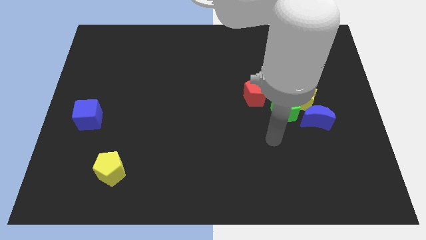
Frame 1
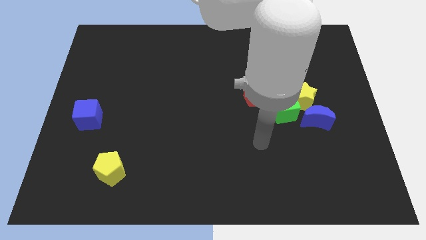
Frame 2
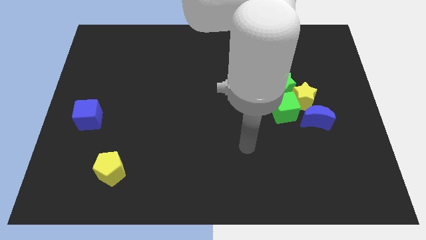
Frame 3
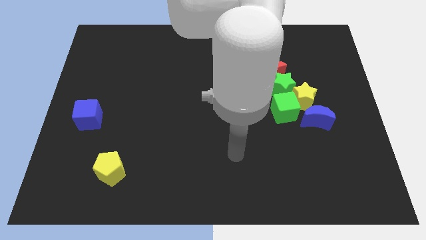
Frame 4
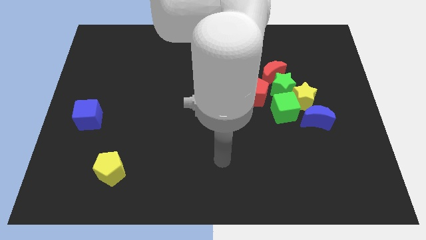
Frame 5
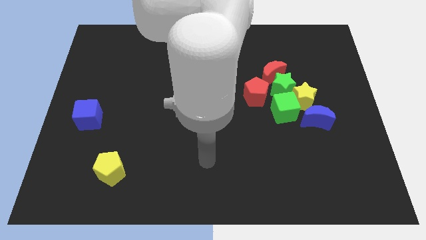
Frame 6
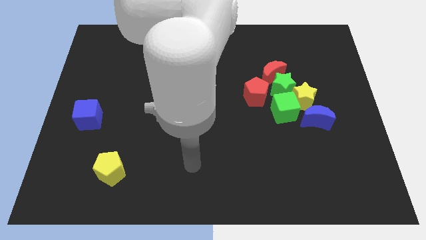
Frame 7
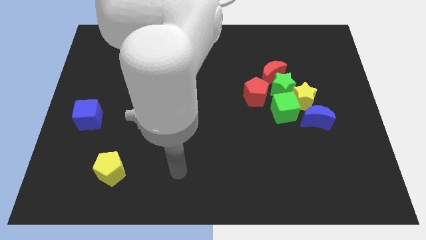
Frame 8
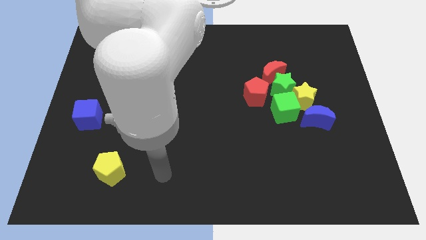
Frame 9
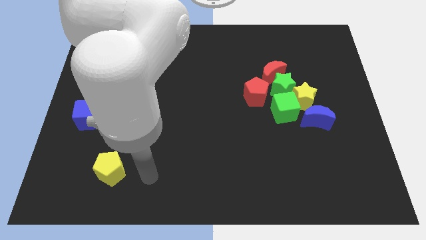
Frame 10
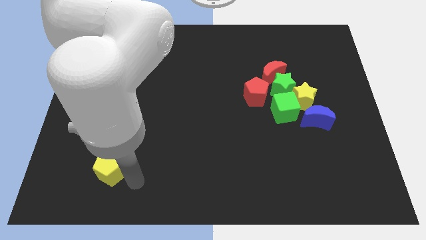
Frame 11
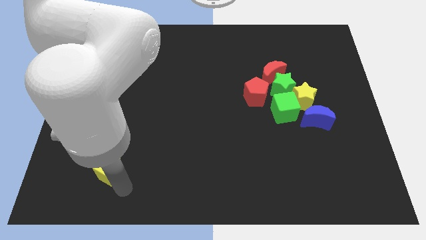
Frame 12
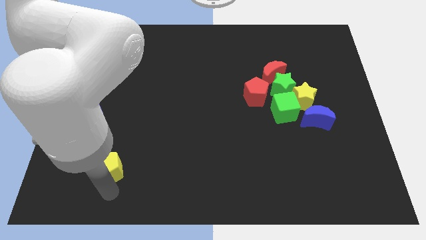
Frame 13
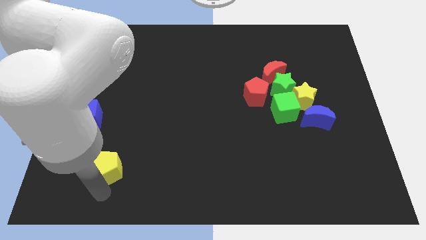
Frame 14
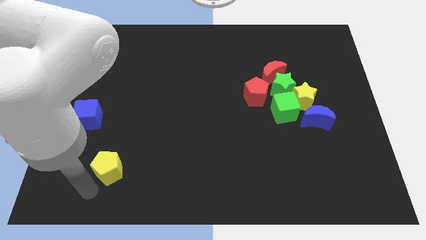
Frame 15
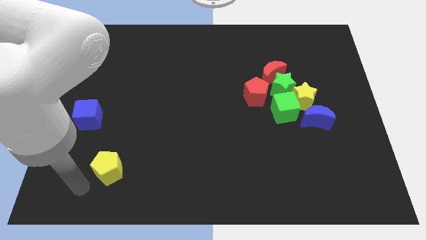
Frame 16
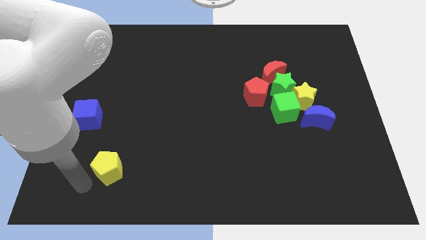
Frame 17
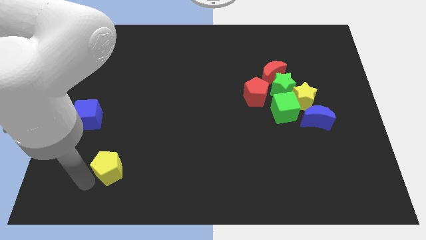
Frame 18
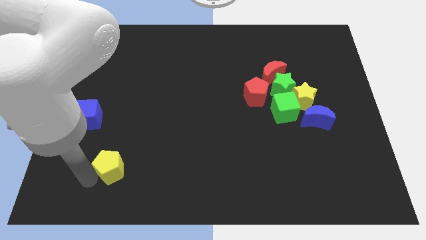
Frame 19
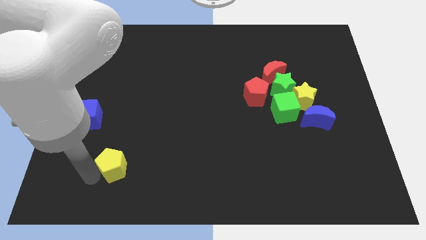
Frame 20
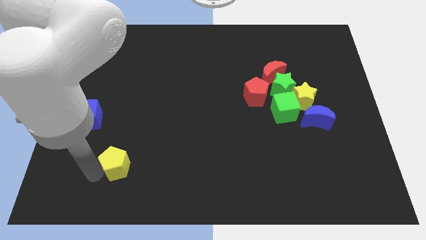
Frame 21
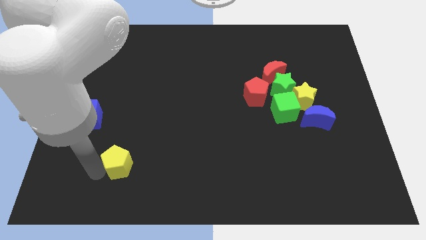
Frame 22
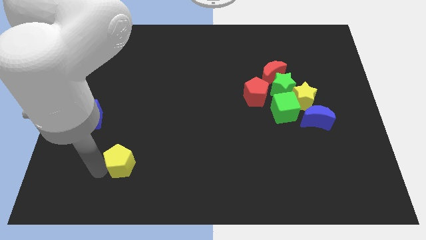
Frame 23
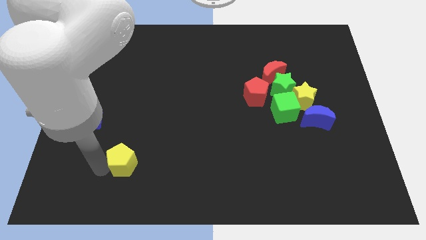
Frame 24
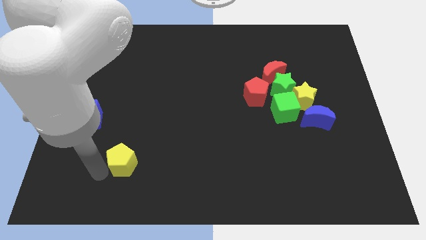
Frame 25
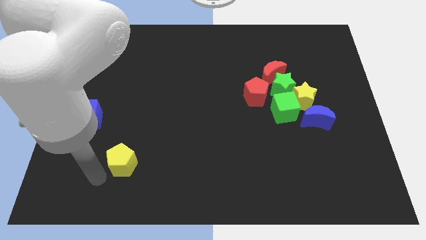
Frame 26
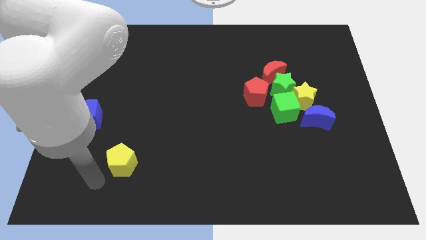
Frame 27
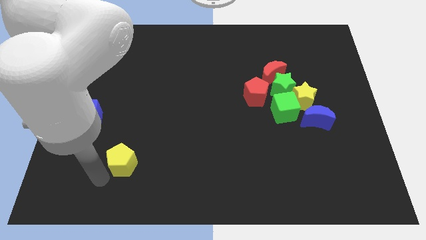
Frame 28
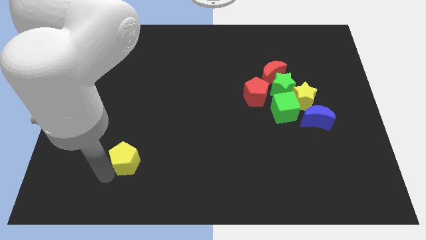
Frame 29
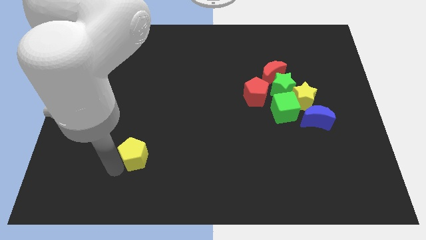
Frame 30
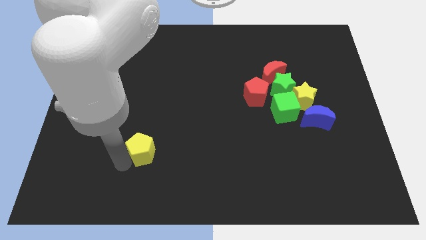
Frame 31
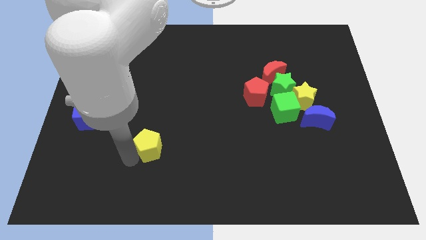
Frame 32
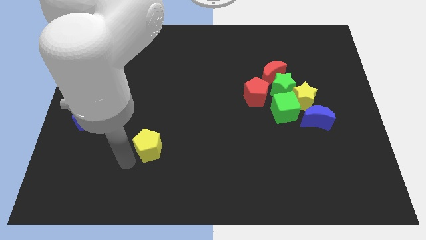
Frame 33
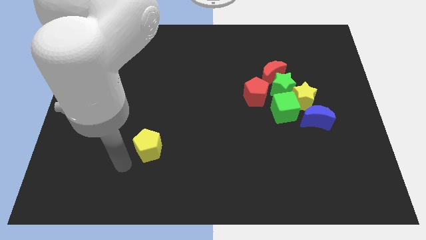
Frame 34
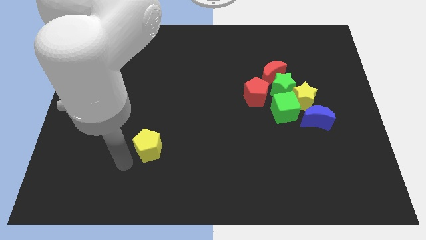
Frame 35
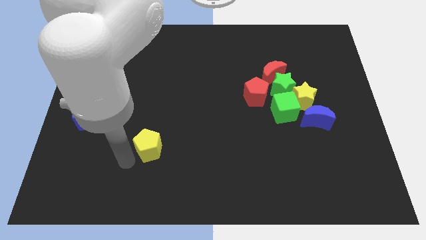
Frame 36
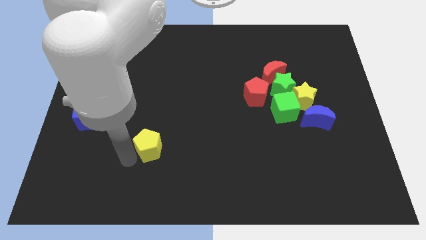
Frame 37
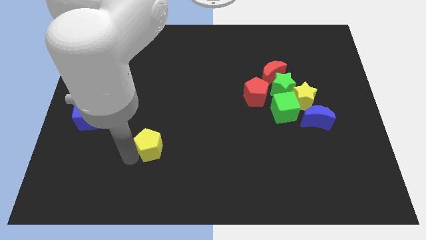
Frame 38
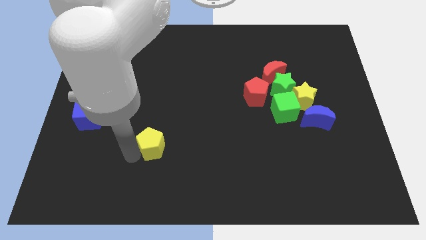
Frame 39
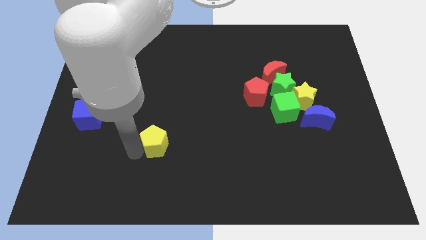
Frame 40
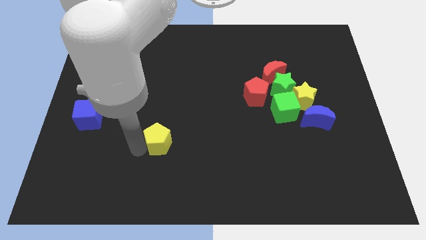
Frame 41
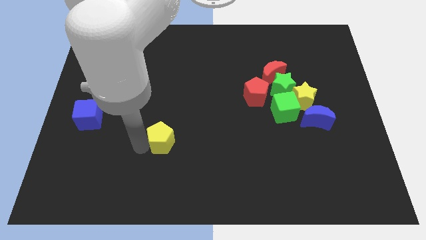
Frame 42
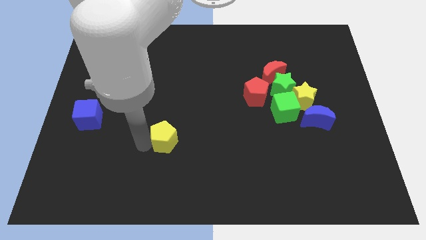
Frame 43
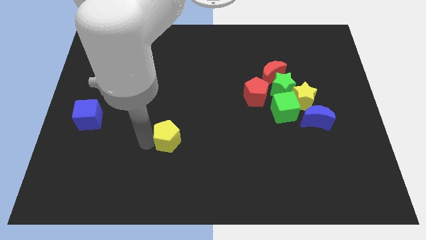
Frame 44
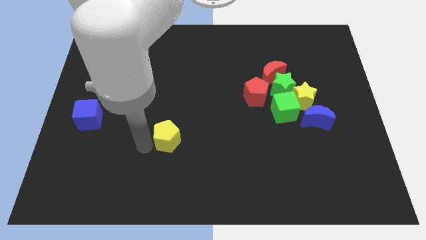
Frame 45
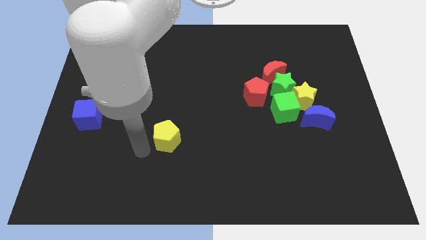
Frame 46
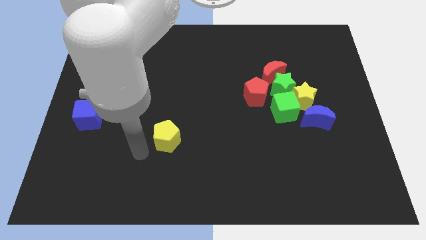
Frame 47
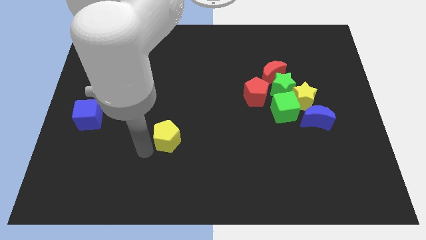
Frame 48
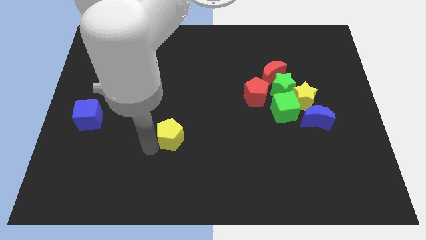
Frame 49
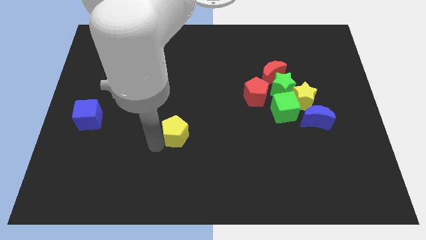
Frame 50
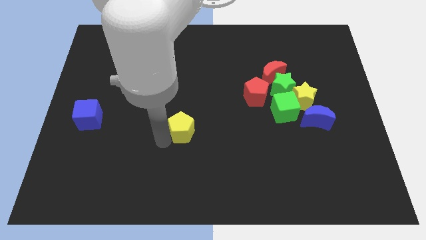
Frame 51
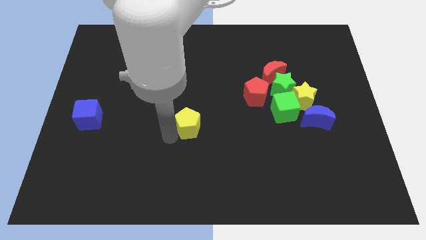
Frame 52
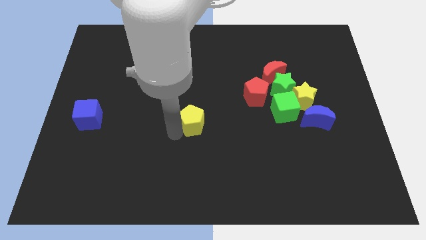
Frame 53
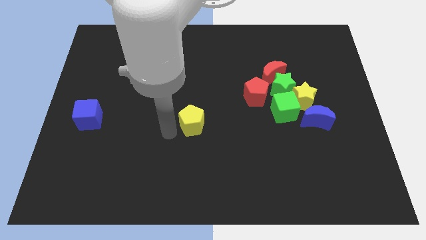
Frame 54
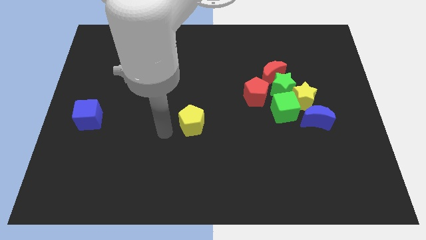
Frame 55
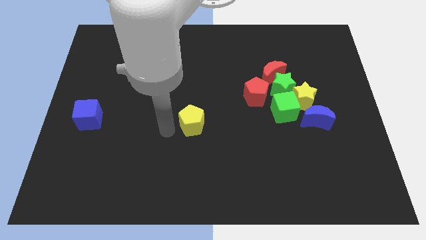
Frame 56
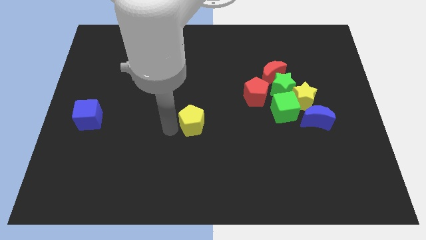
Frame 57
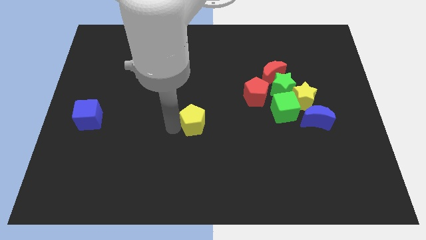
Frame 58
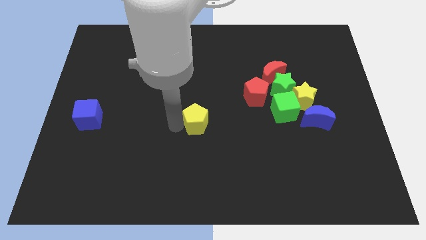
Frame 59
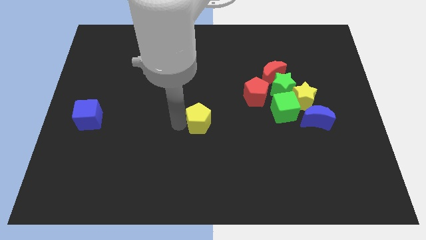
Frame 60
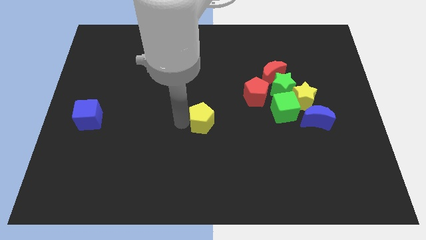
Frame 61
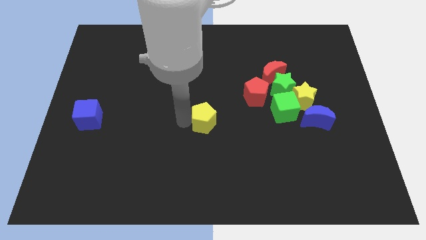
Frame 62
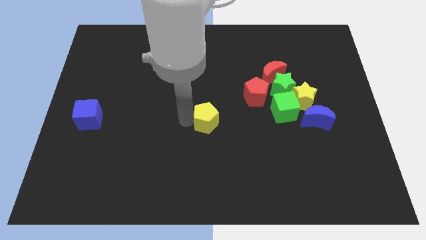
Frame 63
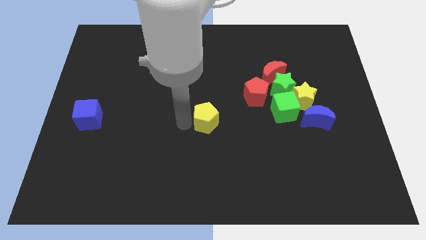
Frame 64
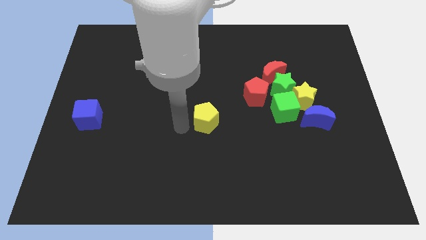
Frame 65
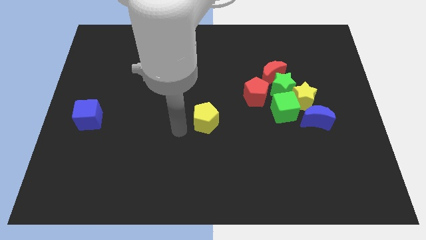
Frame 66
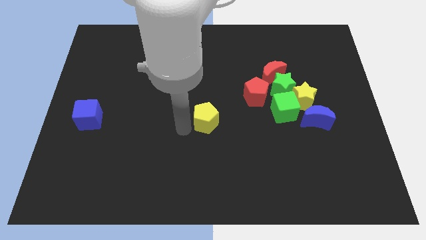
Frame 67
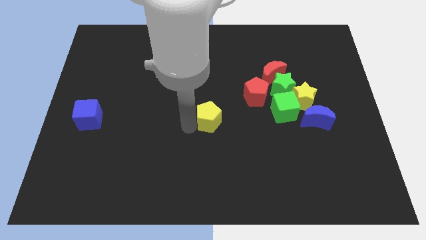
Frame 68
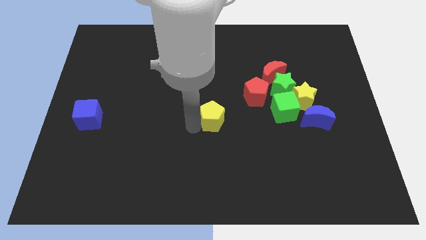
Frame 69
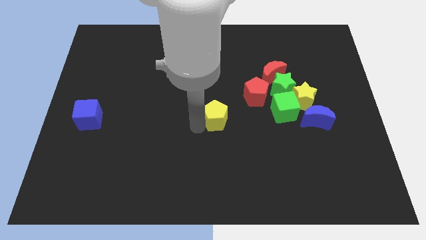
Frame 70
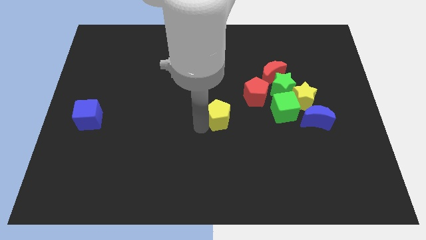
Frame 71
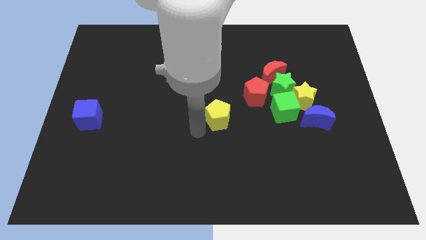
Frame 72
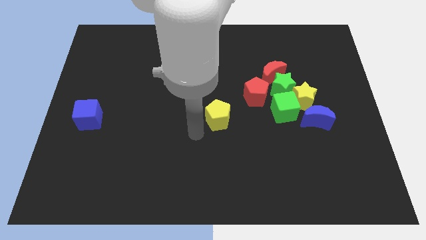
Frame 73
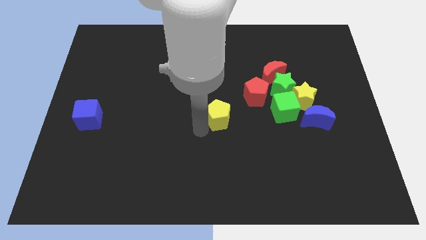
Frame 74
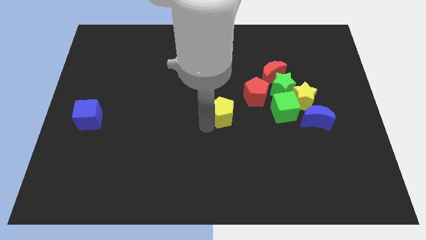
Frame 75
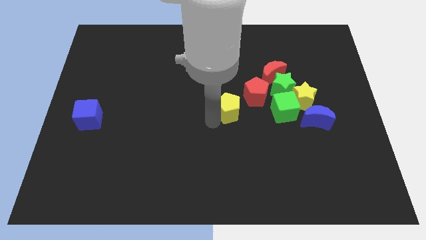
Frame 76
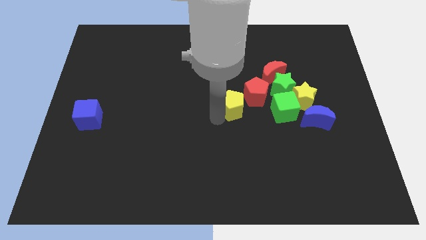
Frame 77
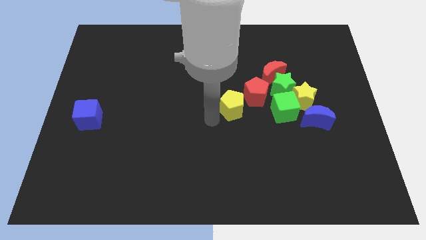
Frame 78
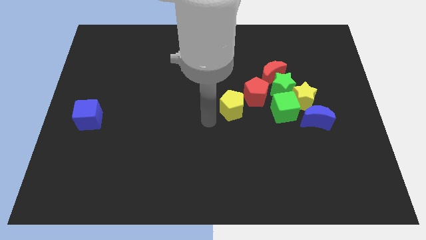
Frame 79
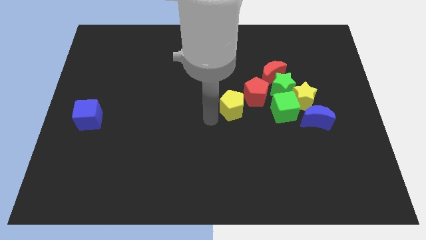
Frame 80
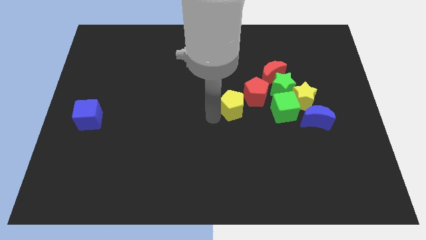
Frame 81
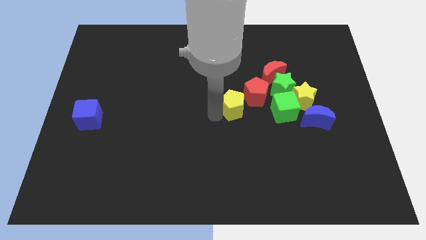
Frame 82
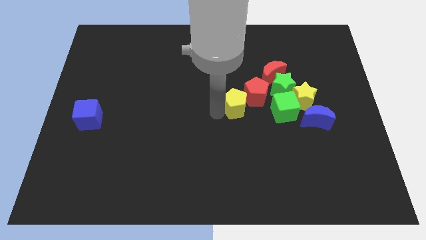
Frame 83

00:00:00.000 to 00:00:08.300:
put the yellow pentagon next to the red pentagon
